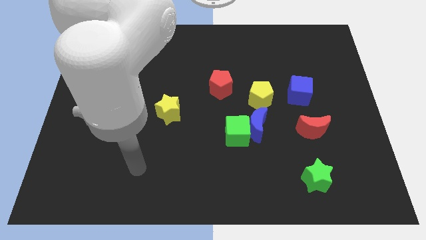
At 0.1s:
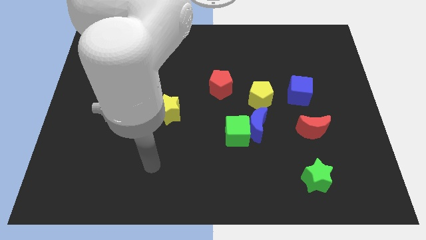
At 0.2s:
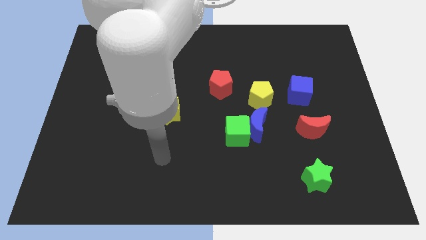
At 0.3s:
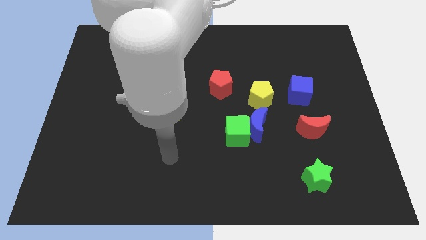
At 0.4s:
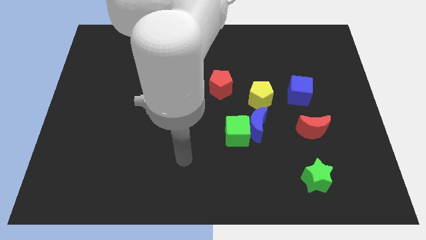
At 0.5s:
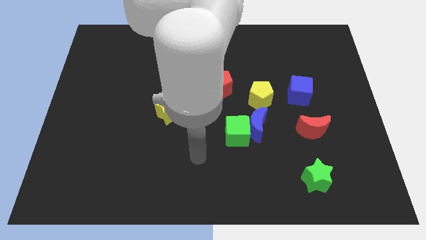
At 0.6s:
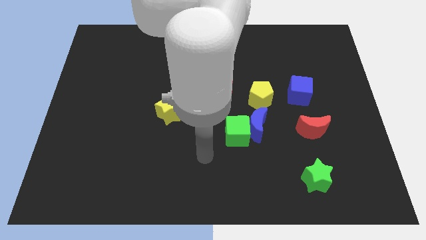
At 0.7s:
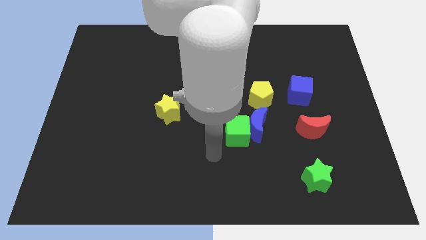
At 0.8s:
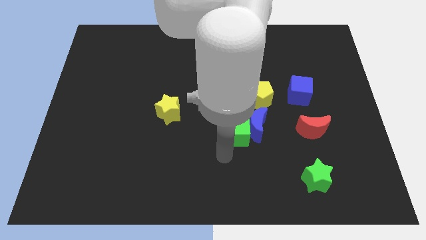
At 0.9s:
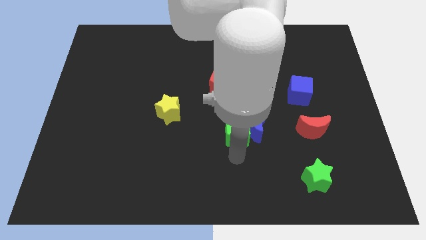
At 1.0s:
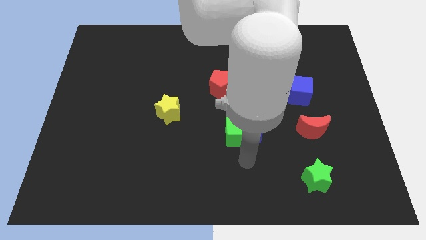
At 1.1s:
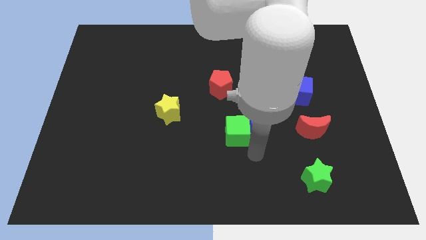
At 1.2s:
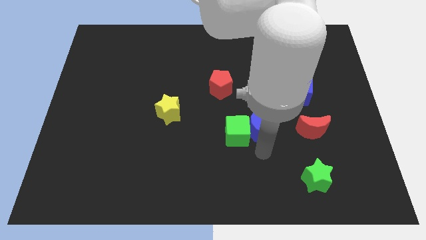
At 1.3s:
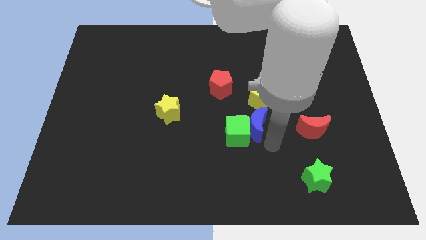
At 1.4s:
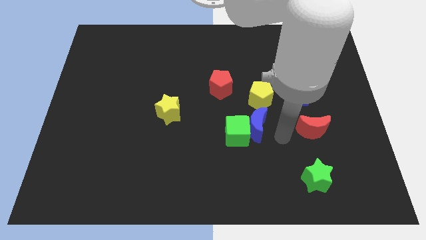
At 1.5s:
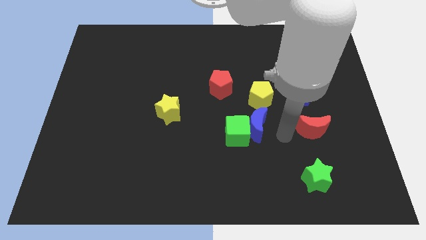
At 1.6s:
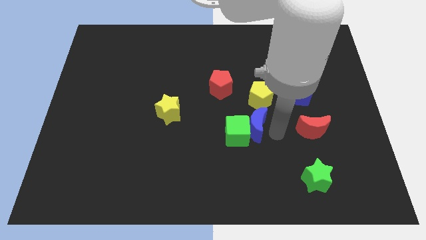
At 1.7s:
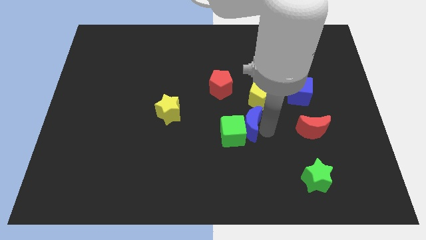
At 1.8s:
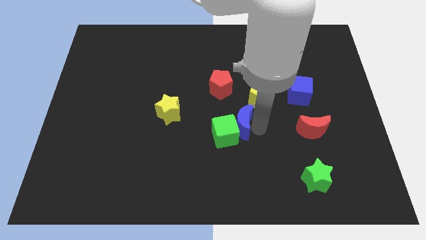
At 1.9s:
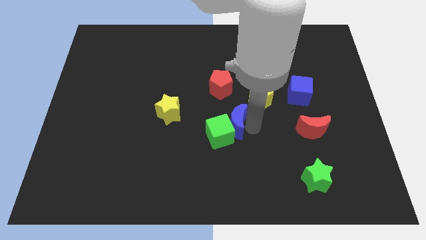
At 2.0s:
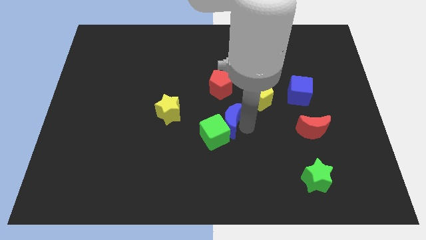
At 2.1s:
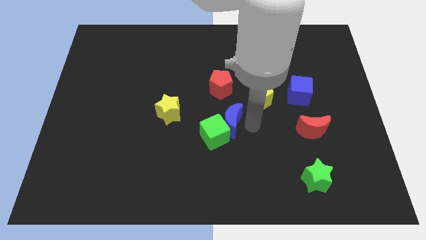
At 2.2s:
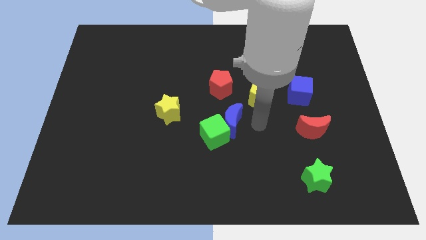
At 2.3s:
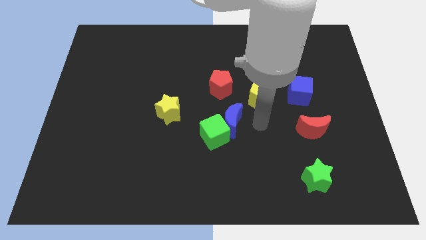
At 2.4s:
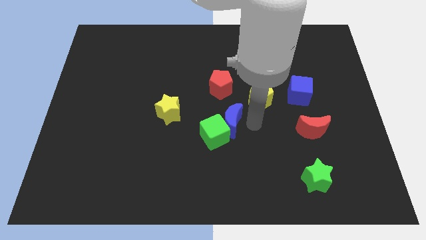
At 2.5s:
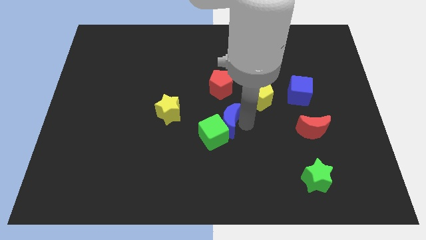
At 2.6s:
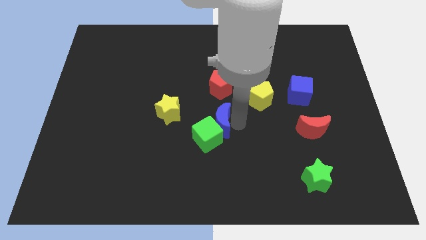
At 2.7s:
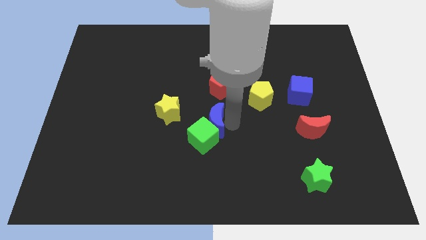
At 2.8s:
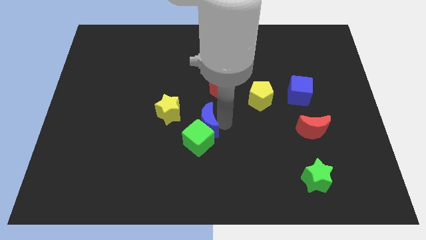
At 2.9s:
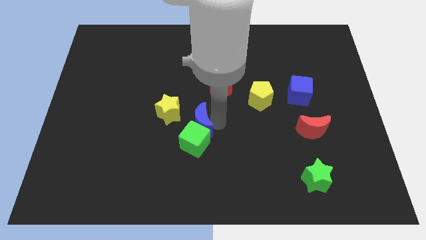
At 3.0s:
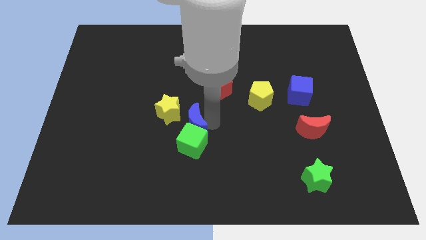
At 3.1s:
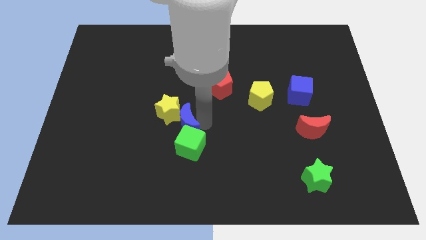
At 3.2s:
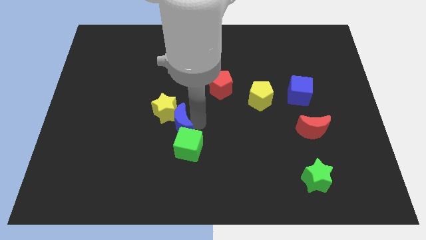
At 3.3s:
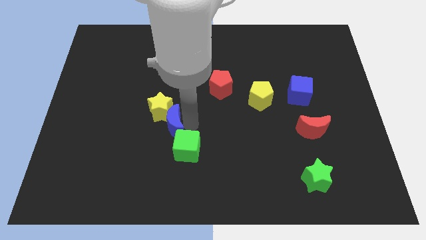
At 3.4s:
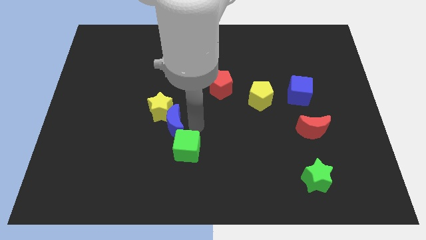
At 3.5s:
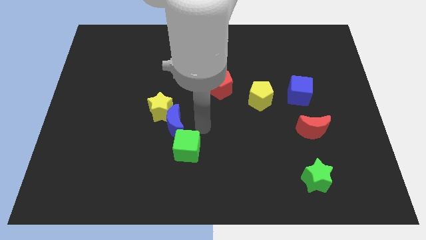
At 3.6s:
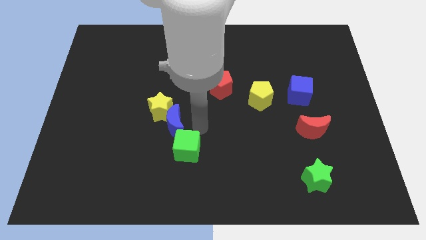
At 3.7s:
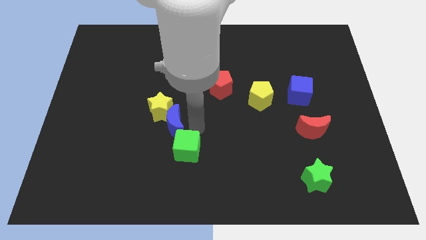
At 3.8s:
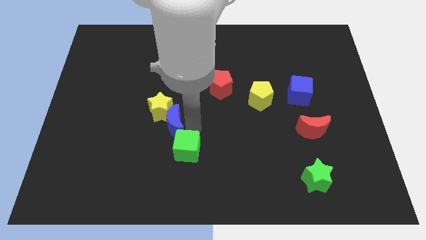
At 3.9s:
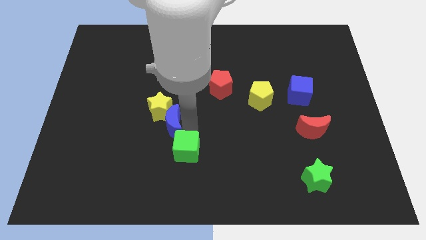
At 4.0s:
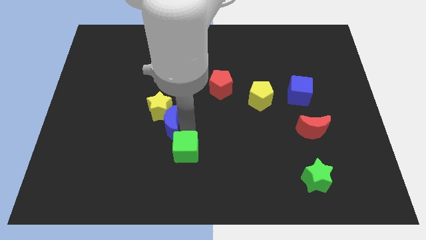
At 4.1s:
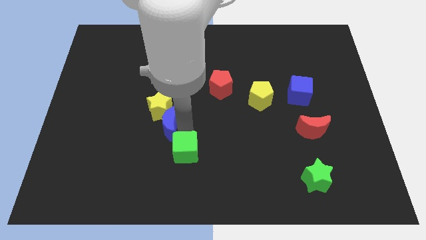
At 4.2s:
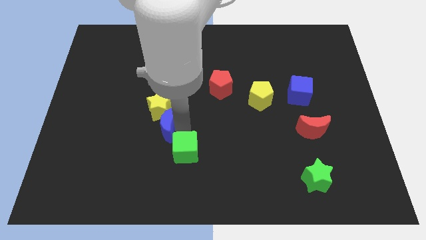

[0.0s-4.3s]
move the blue moon to the left

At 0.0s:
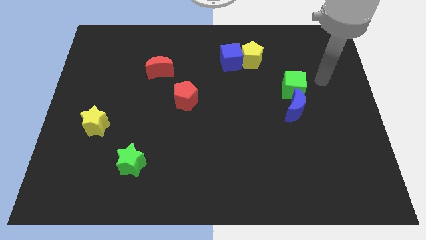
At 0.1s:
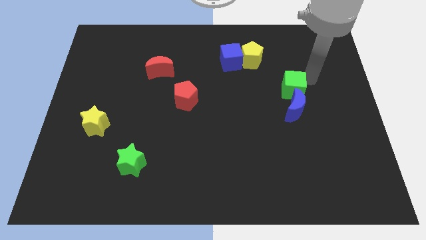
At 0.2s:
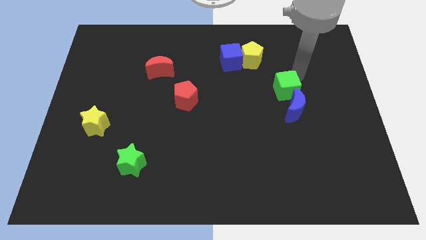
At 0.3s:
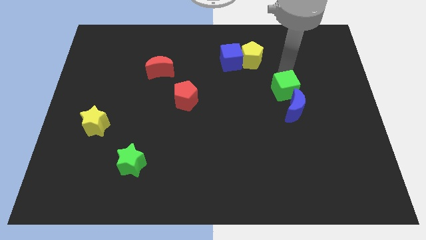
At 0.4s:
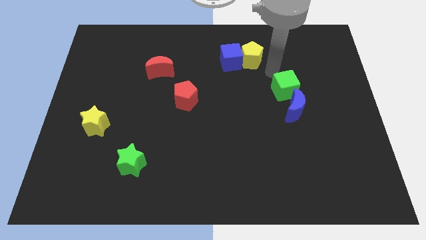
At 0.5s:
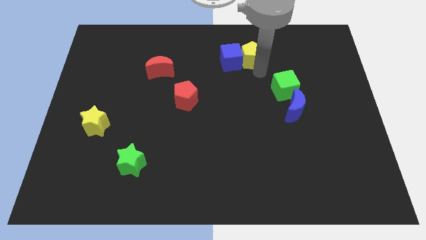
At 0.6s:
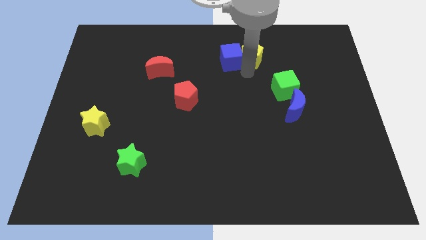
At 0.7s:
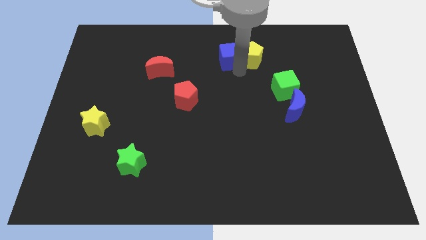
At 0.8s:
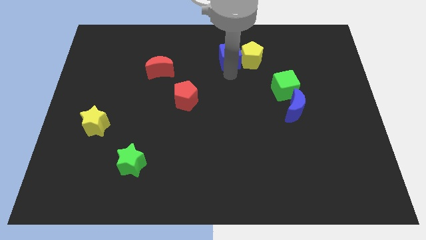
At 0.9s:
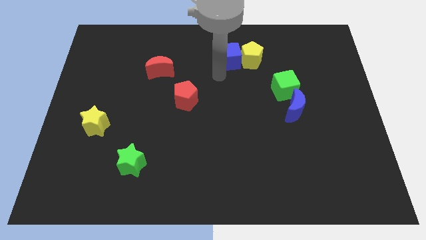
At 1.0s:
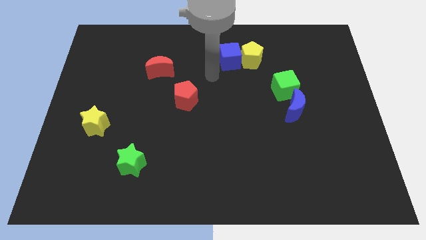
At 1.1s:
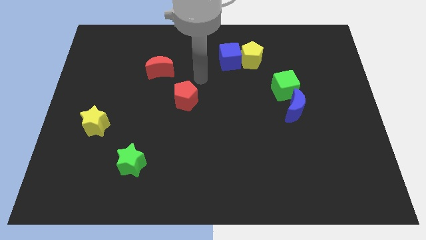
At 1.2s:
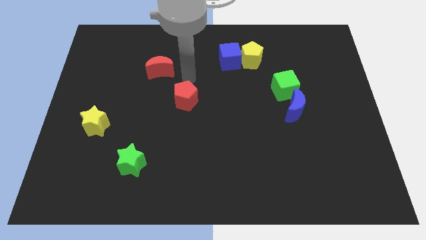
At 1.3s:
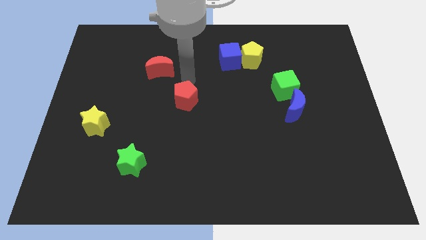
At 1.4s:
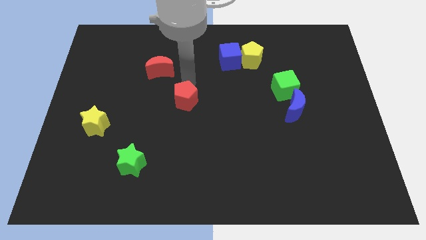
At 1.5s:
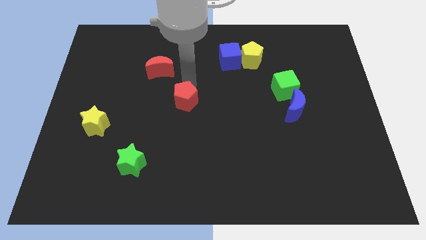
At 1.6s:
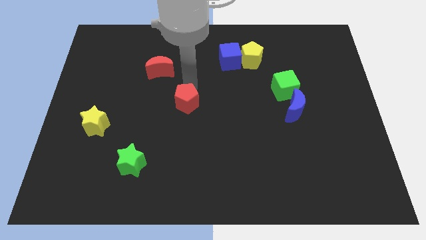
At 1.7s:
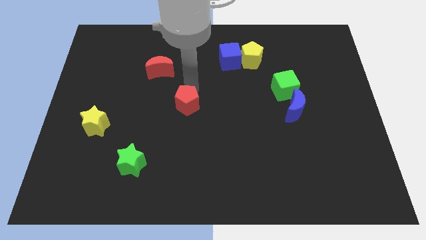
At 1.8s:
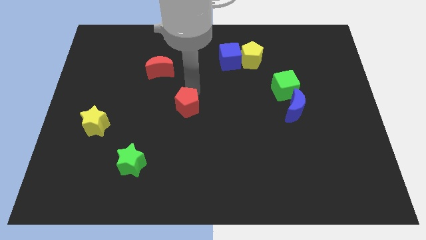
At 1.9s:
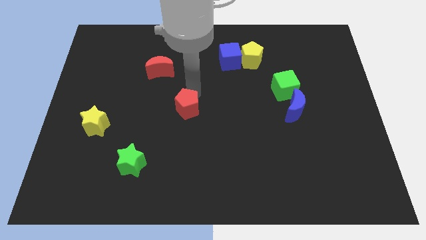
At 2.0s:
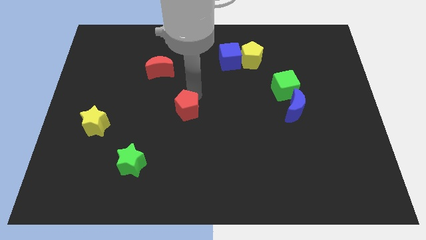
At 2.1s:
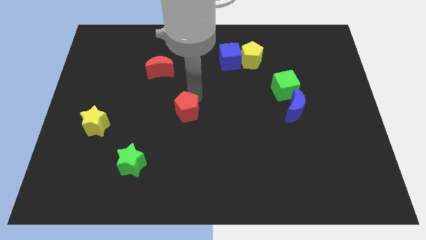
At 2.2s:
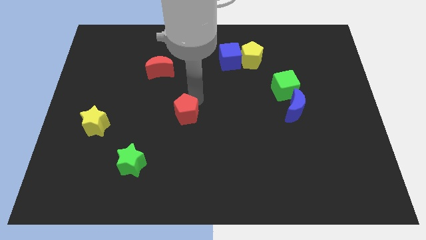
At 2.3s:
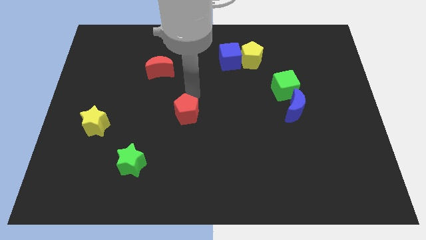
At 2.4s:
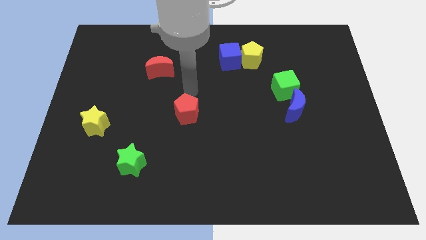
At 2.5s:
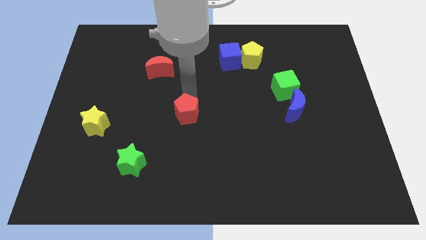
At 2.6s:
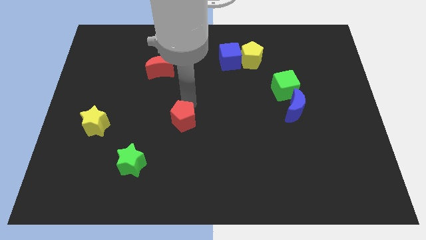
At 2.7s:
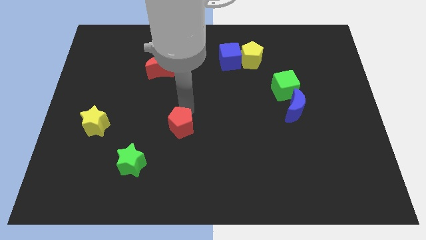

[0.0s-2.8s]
slightly push the red pentagon downwards

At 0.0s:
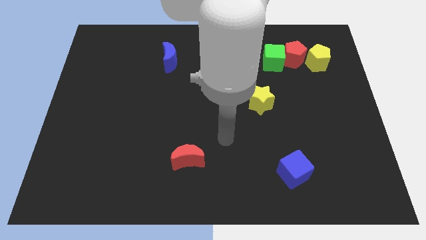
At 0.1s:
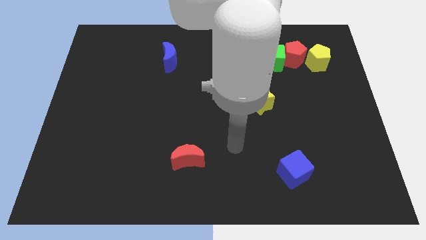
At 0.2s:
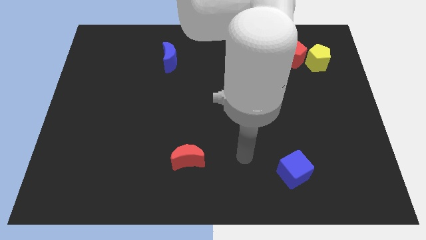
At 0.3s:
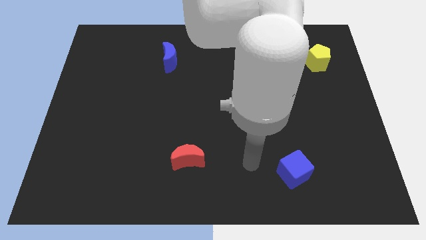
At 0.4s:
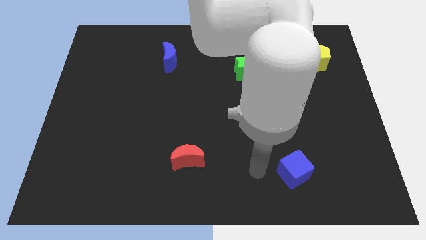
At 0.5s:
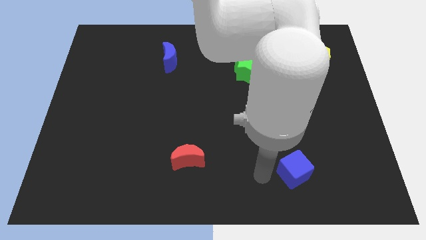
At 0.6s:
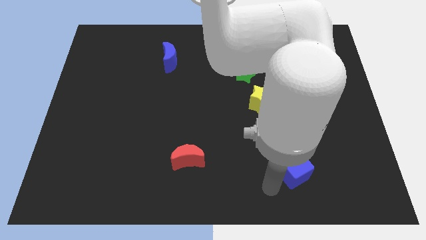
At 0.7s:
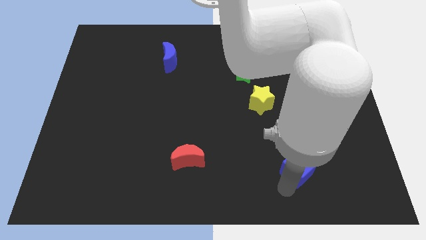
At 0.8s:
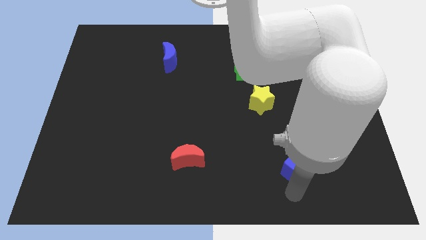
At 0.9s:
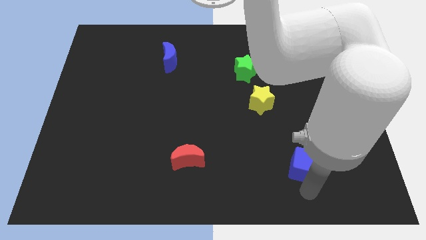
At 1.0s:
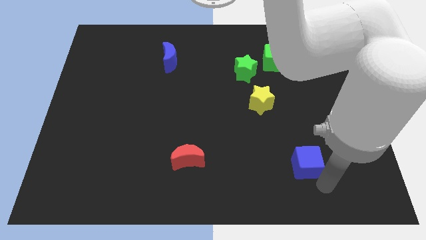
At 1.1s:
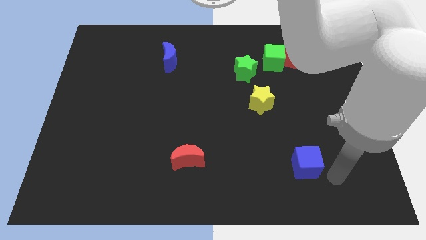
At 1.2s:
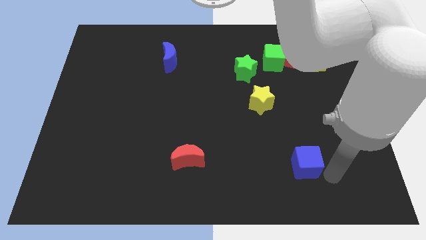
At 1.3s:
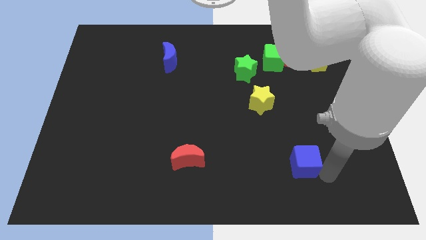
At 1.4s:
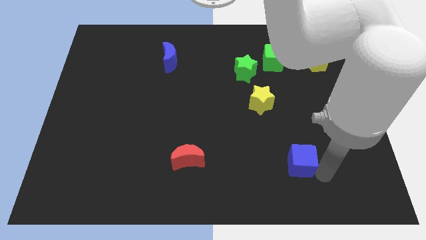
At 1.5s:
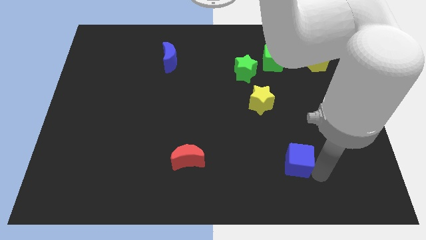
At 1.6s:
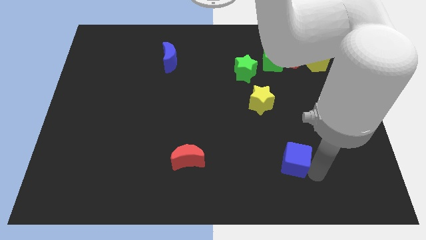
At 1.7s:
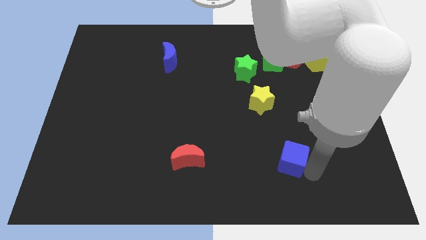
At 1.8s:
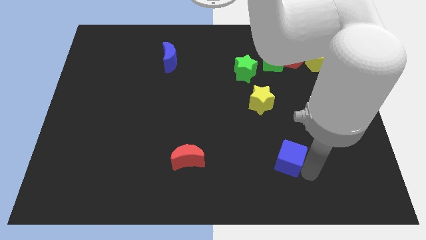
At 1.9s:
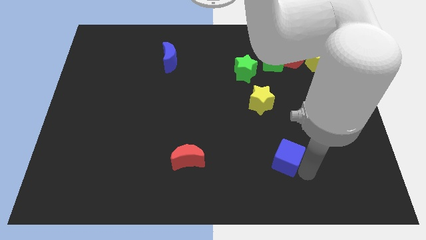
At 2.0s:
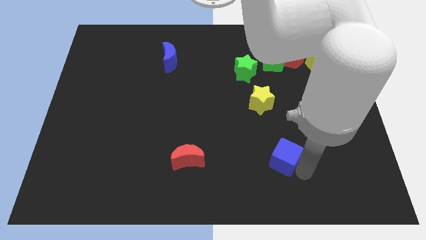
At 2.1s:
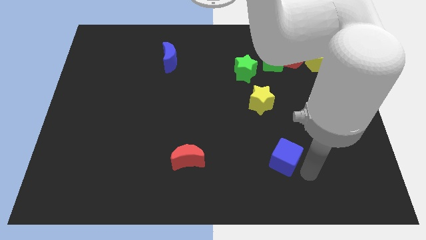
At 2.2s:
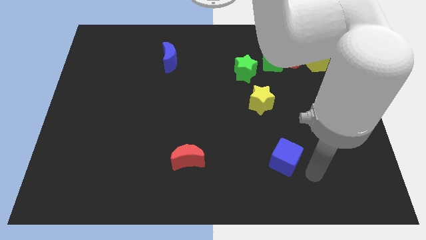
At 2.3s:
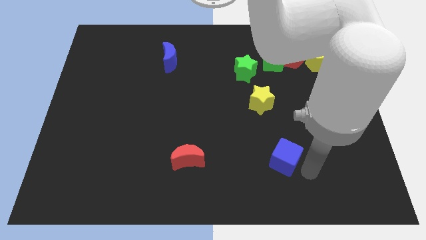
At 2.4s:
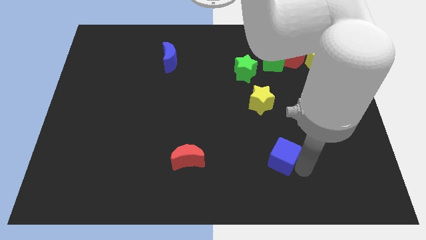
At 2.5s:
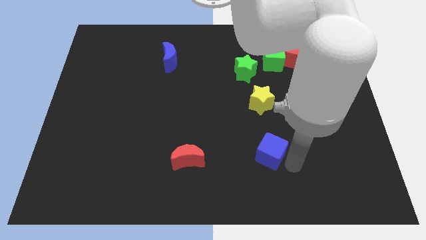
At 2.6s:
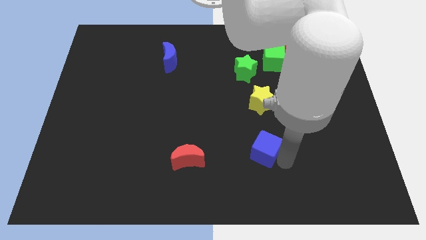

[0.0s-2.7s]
slide the blue cube slightly upwards and left
